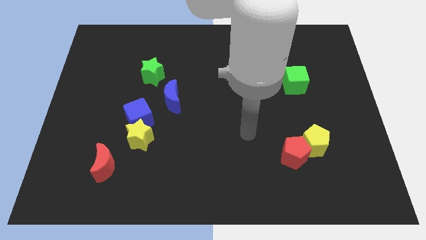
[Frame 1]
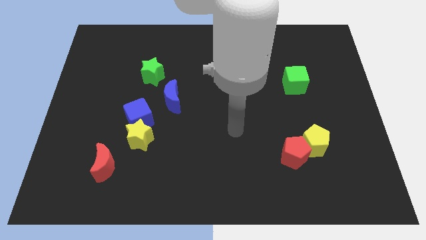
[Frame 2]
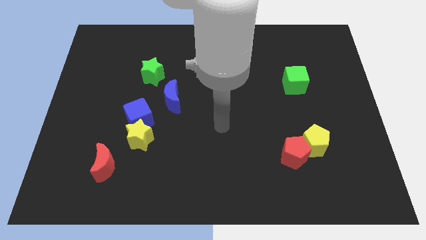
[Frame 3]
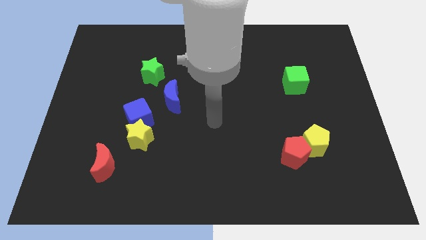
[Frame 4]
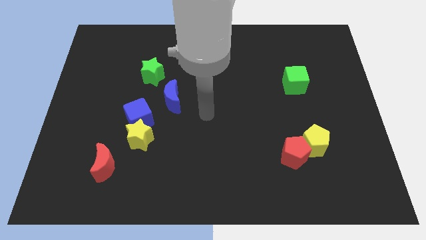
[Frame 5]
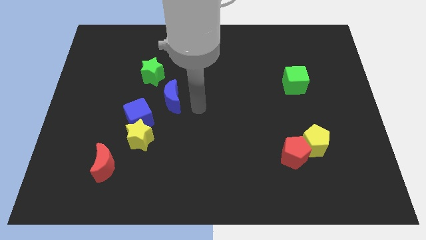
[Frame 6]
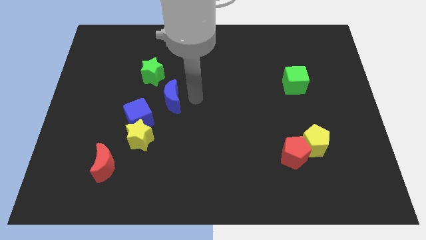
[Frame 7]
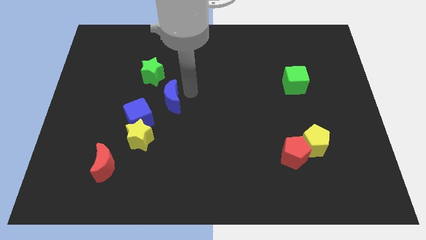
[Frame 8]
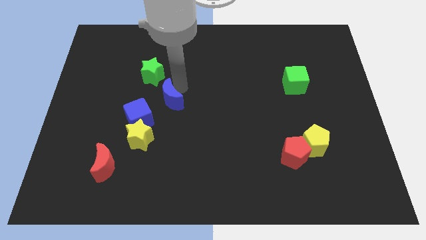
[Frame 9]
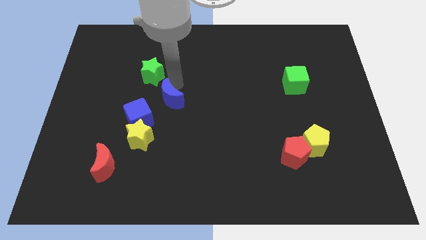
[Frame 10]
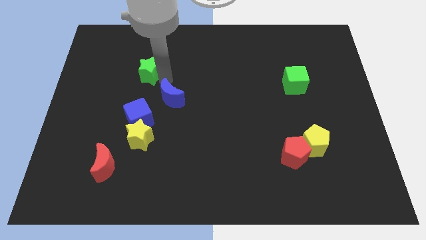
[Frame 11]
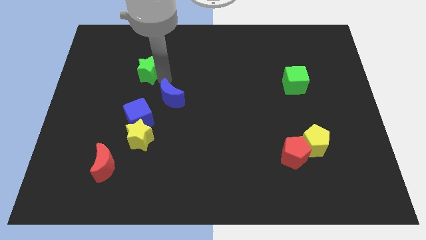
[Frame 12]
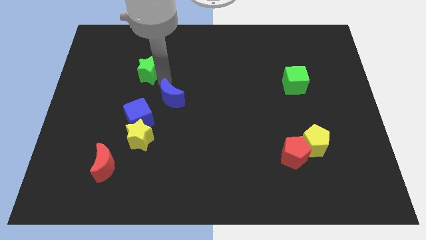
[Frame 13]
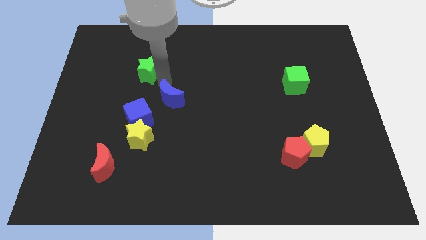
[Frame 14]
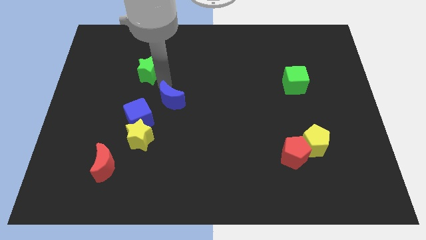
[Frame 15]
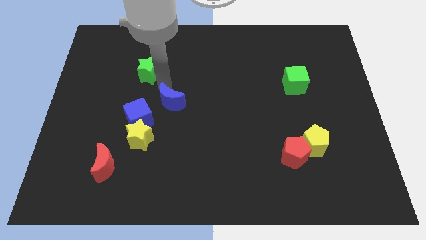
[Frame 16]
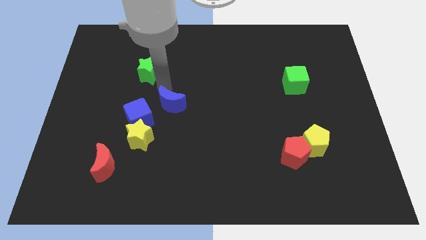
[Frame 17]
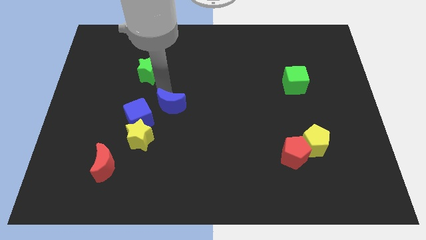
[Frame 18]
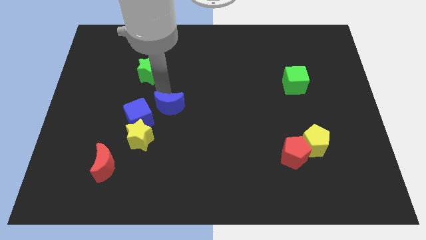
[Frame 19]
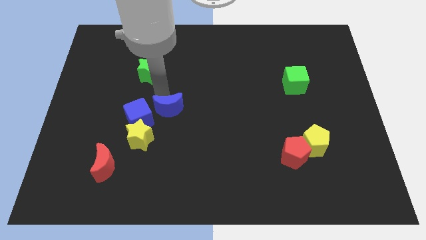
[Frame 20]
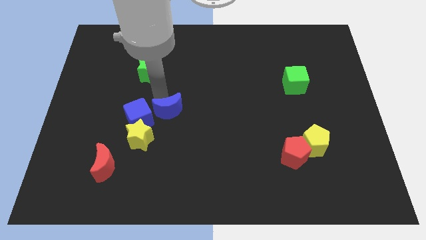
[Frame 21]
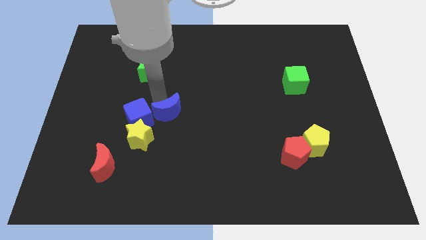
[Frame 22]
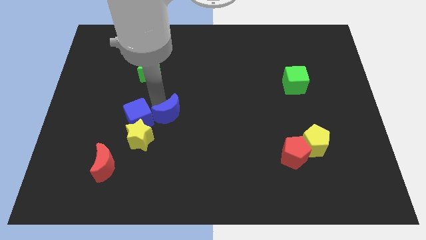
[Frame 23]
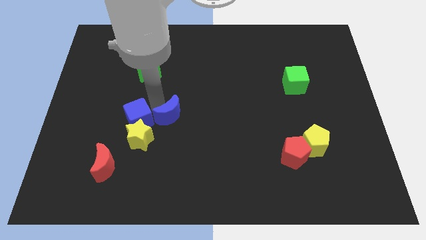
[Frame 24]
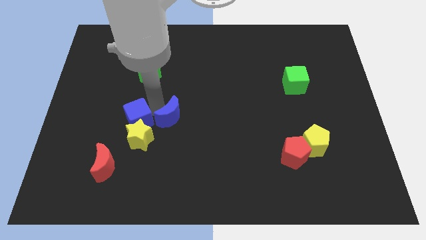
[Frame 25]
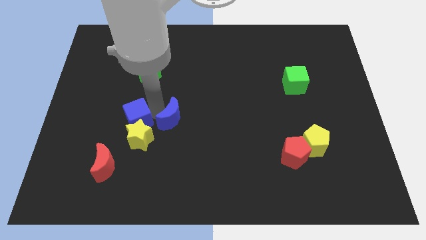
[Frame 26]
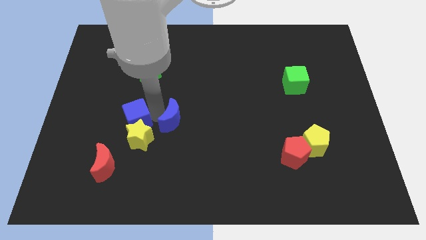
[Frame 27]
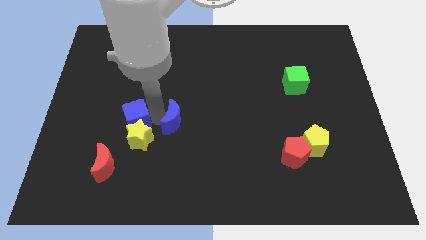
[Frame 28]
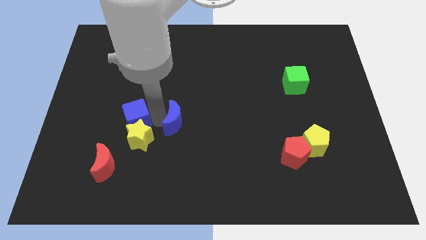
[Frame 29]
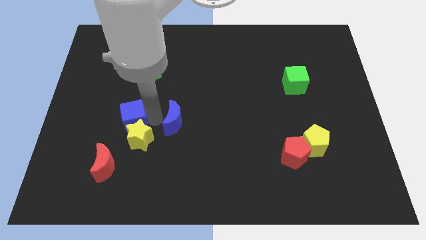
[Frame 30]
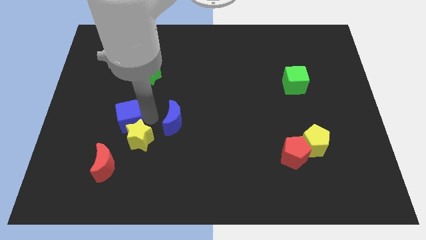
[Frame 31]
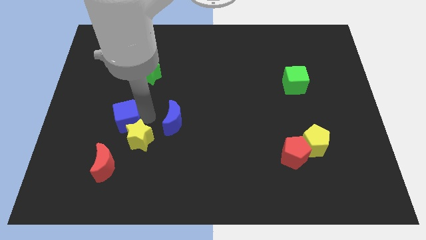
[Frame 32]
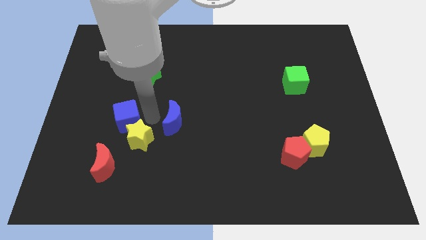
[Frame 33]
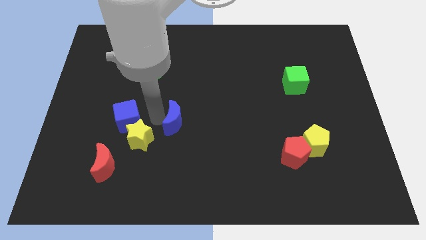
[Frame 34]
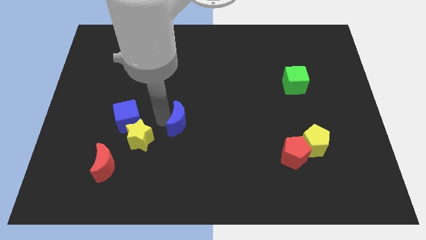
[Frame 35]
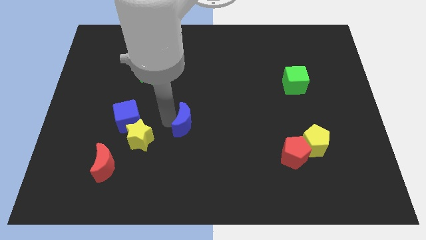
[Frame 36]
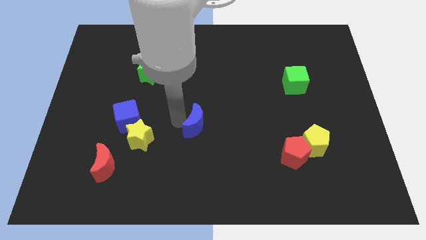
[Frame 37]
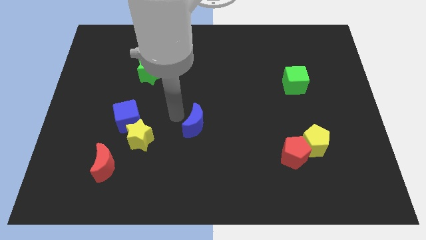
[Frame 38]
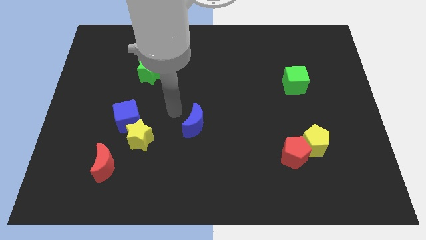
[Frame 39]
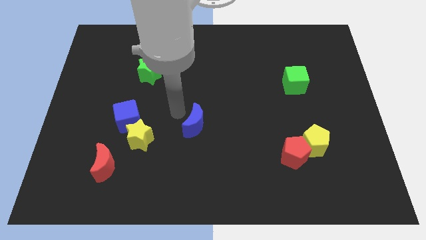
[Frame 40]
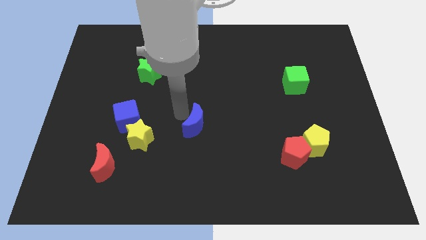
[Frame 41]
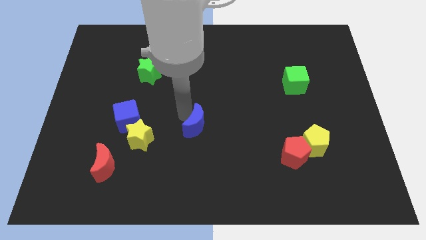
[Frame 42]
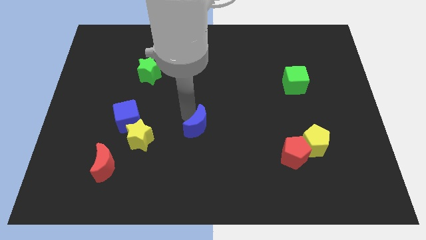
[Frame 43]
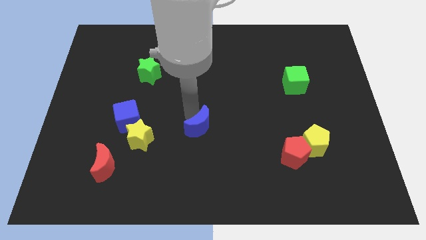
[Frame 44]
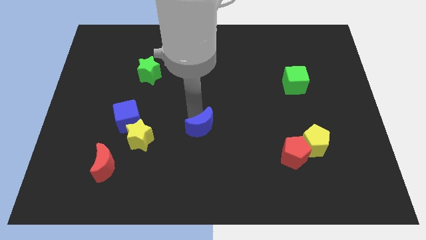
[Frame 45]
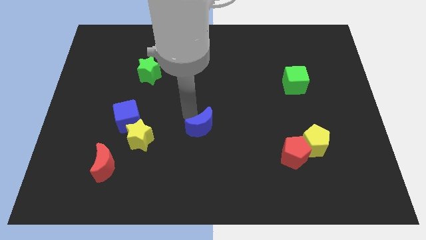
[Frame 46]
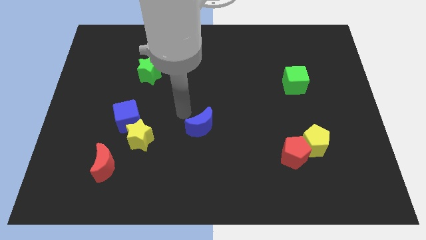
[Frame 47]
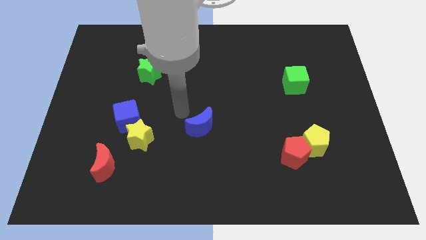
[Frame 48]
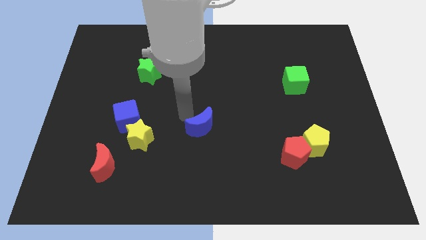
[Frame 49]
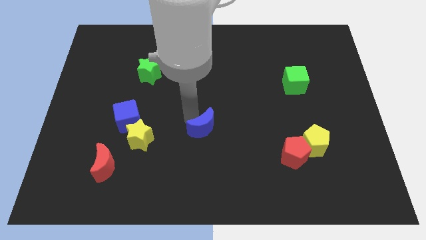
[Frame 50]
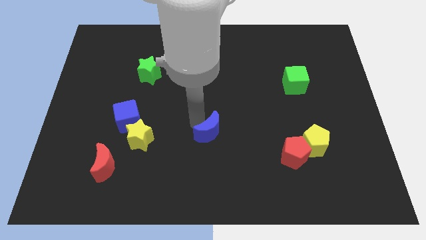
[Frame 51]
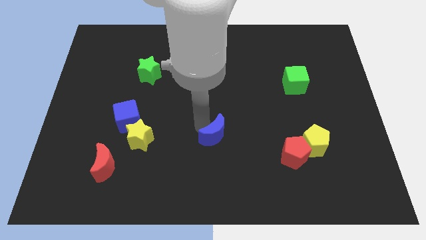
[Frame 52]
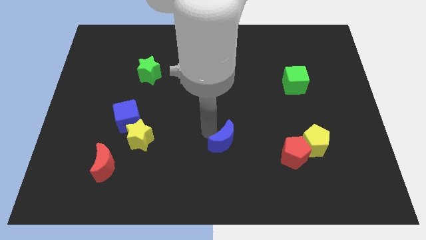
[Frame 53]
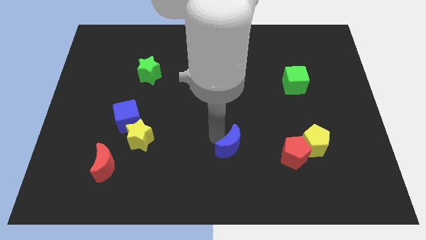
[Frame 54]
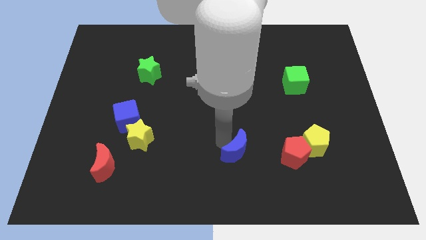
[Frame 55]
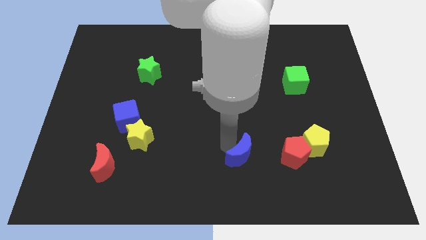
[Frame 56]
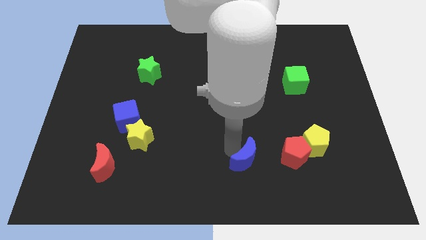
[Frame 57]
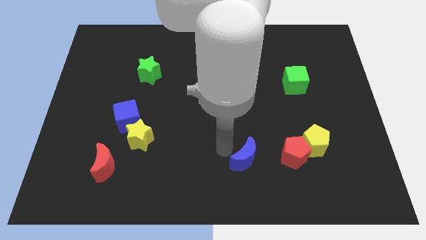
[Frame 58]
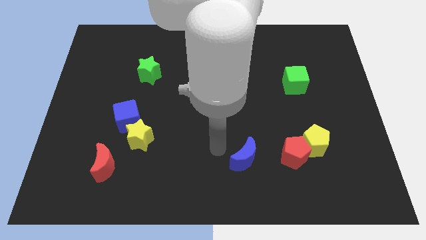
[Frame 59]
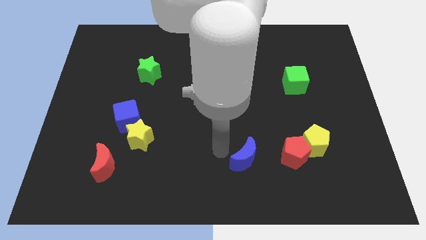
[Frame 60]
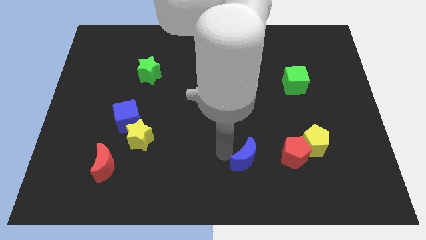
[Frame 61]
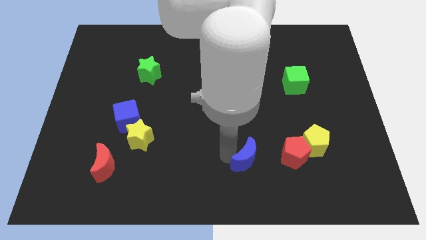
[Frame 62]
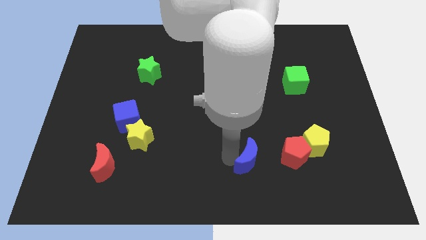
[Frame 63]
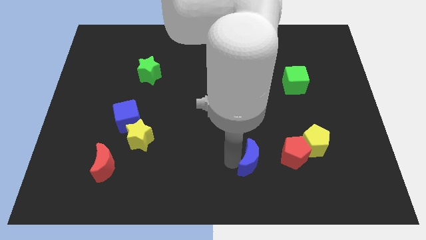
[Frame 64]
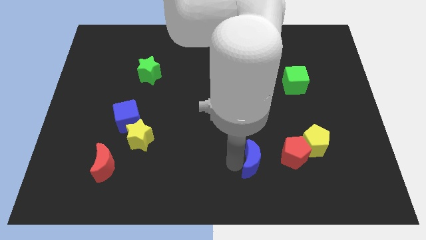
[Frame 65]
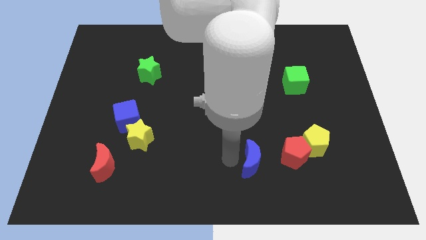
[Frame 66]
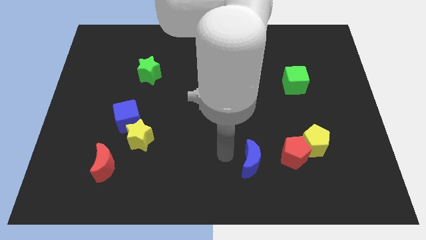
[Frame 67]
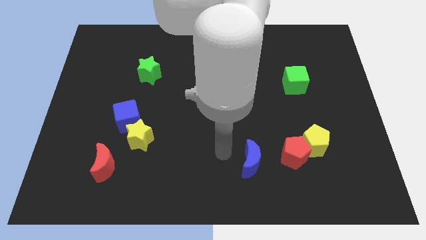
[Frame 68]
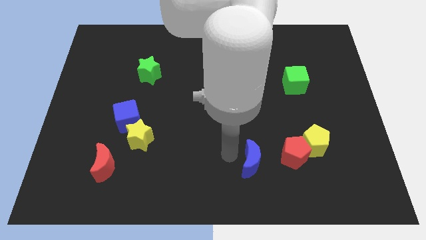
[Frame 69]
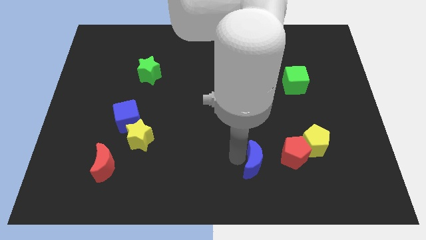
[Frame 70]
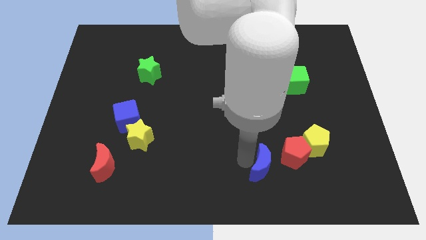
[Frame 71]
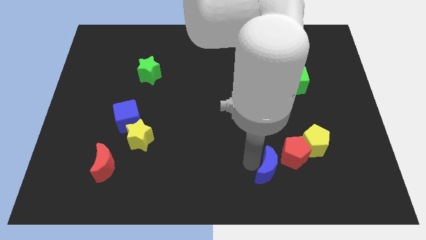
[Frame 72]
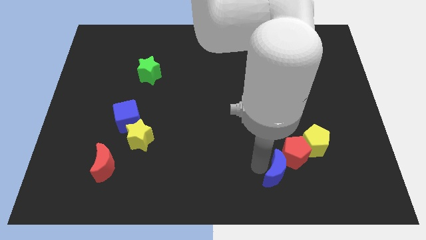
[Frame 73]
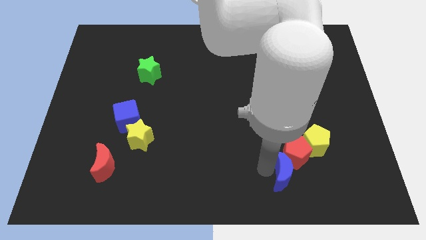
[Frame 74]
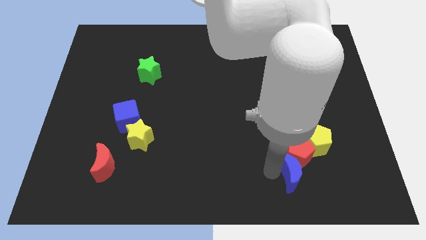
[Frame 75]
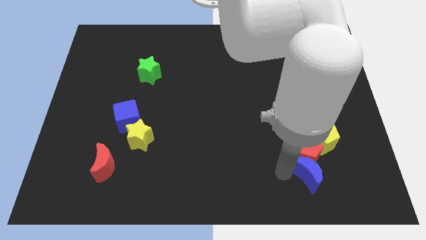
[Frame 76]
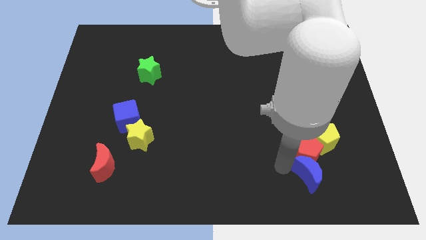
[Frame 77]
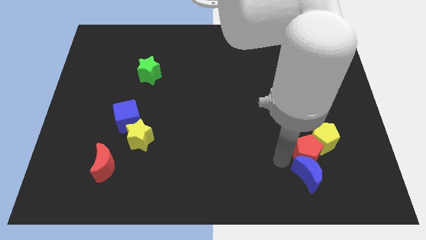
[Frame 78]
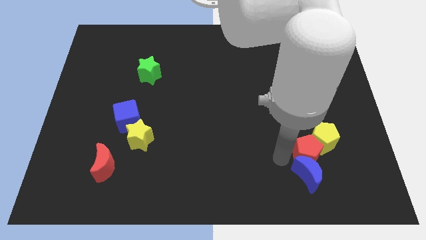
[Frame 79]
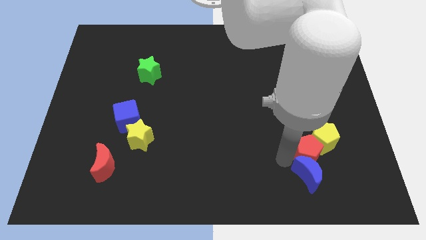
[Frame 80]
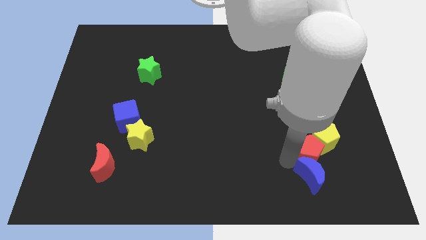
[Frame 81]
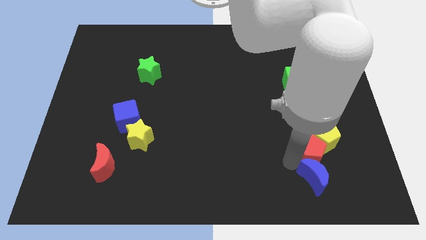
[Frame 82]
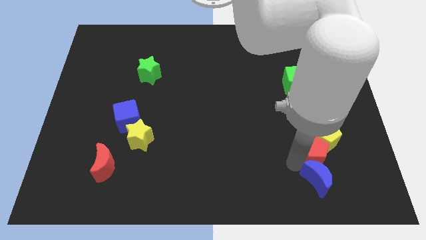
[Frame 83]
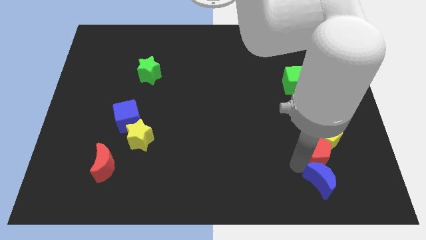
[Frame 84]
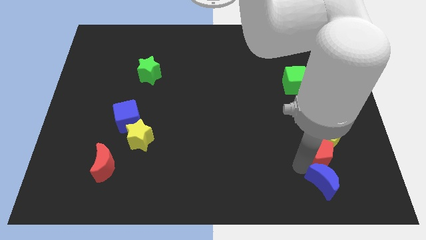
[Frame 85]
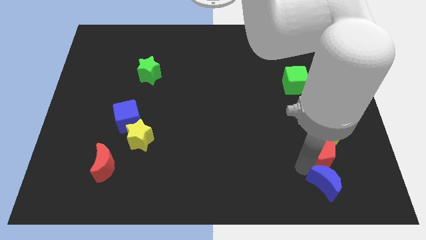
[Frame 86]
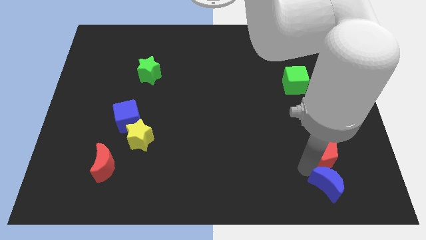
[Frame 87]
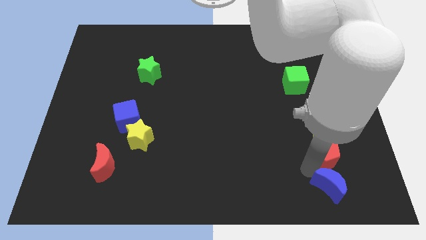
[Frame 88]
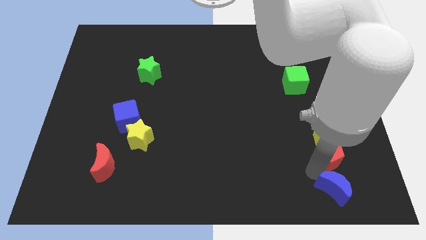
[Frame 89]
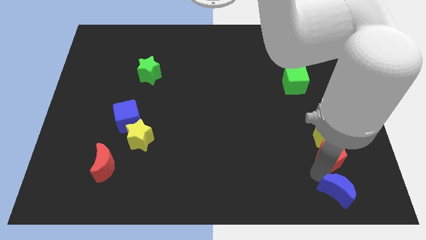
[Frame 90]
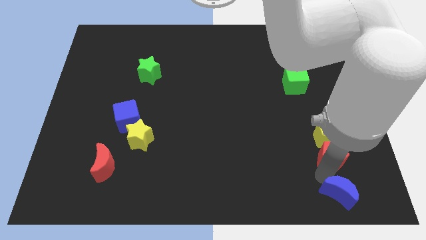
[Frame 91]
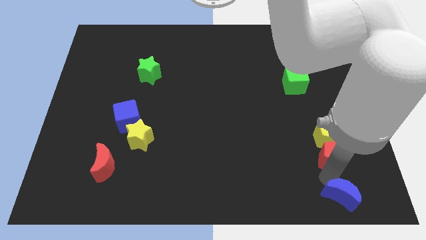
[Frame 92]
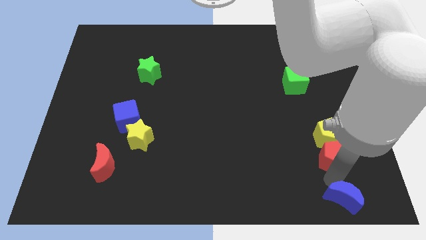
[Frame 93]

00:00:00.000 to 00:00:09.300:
push the blue moon to the bottom right
